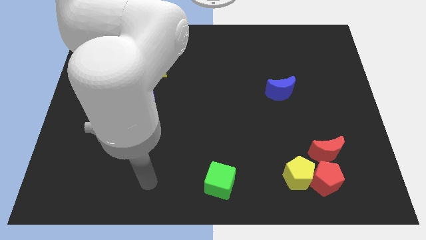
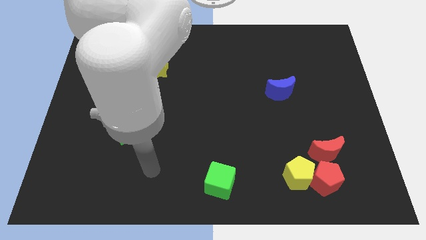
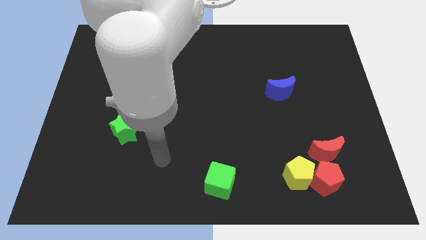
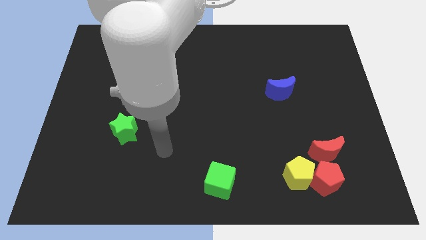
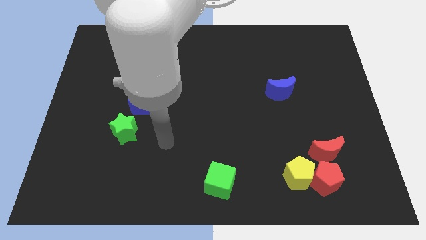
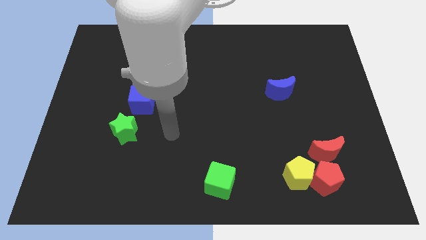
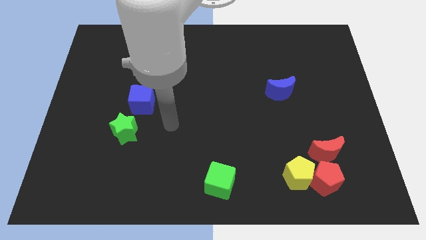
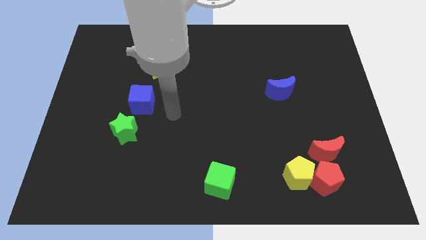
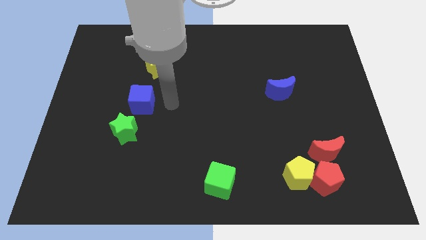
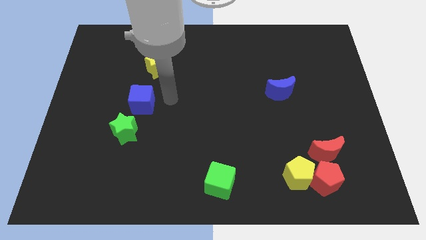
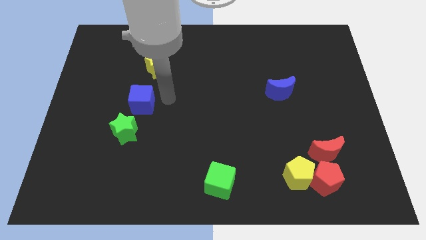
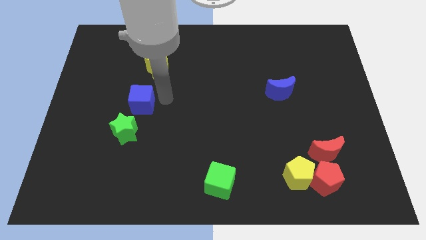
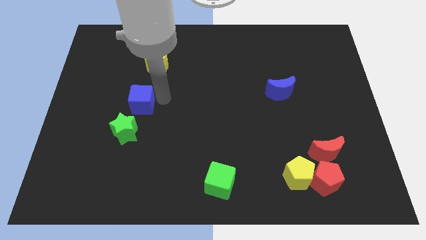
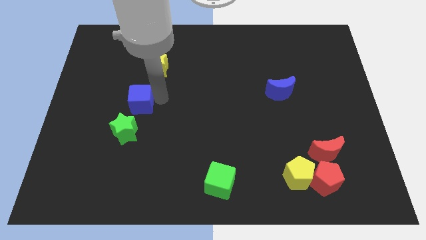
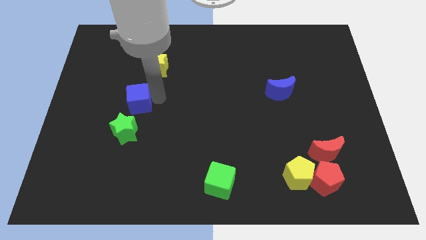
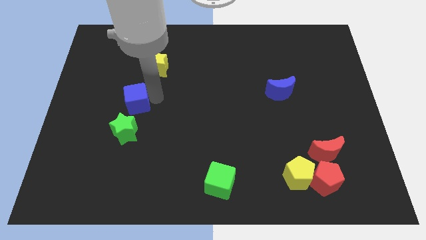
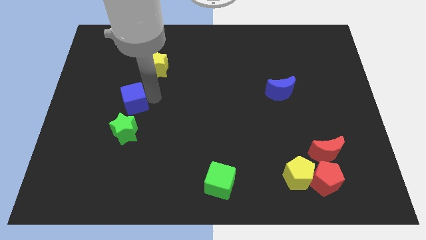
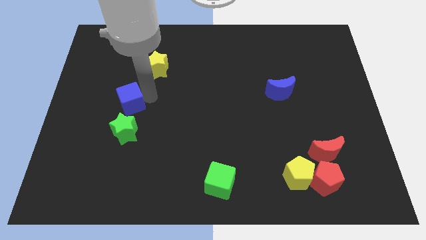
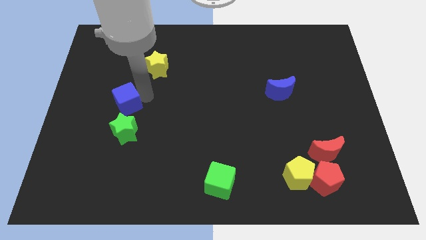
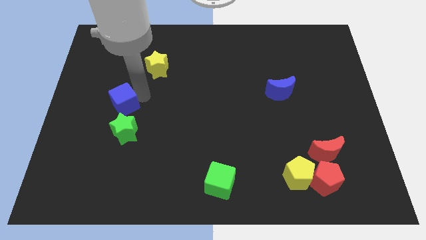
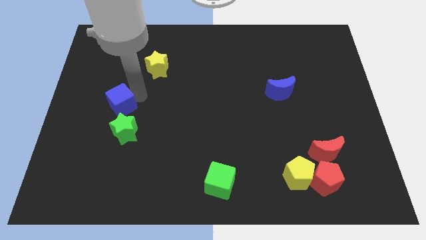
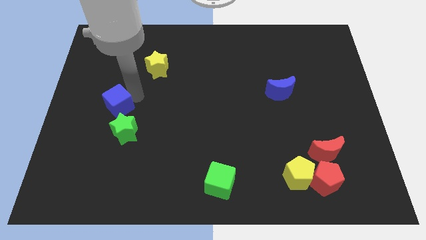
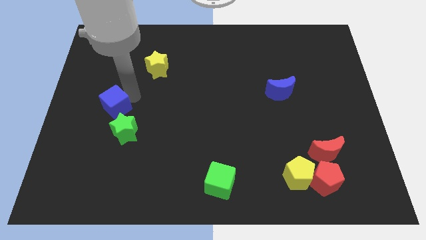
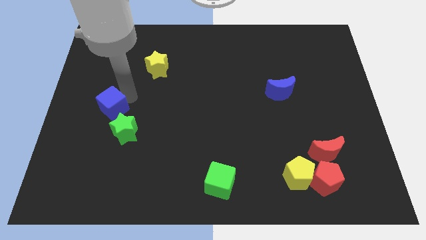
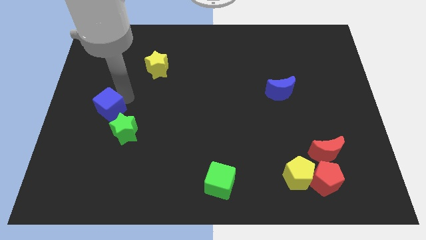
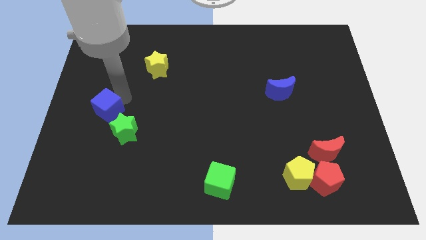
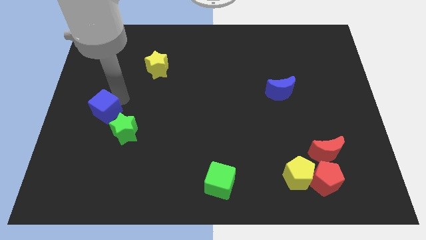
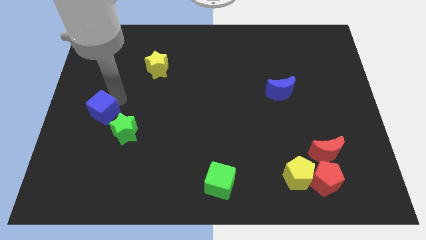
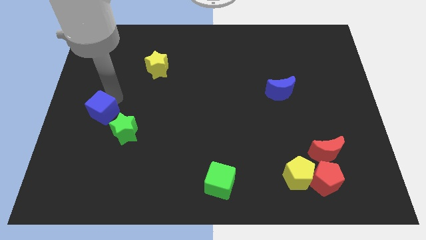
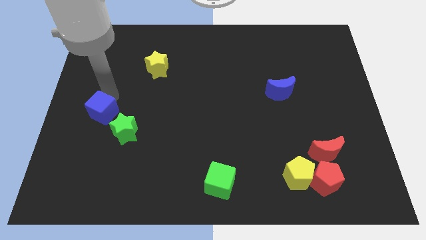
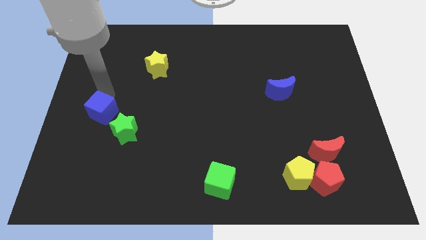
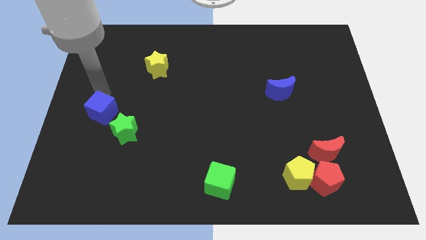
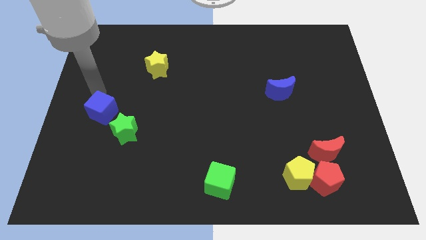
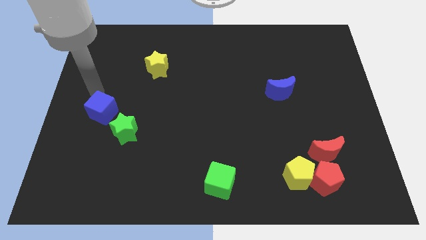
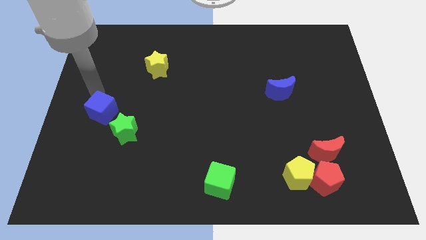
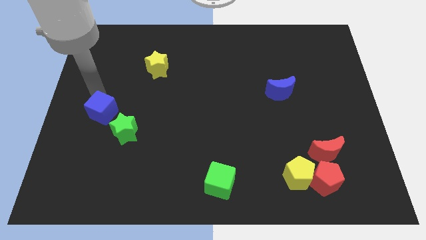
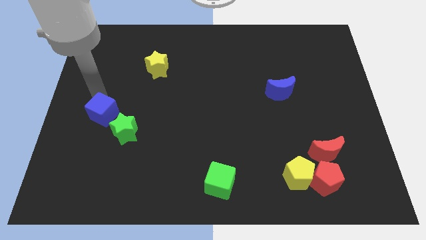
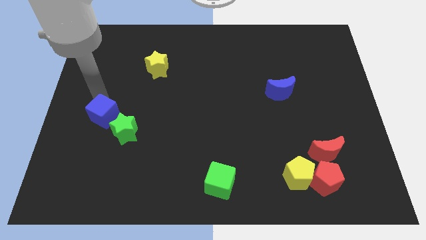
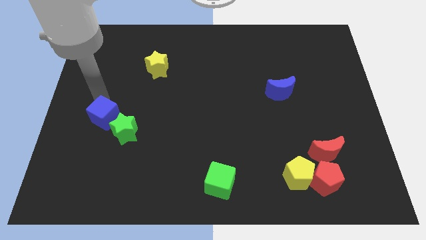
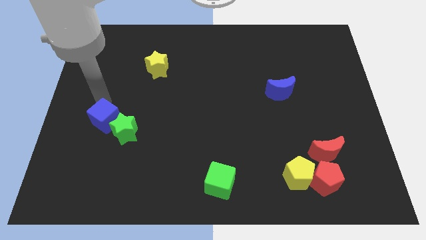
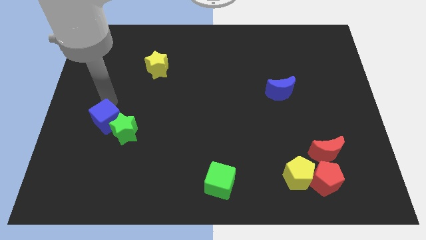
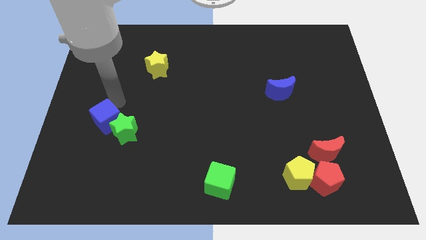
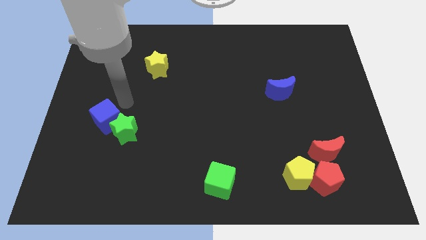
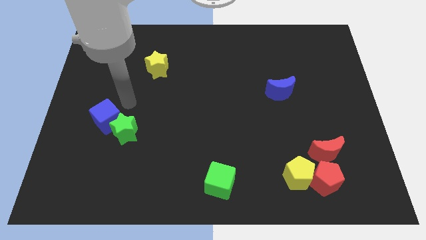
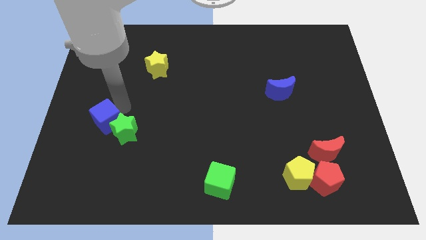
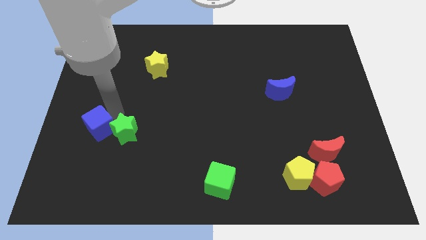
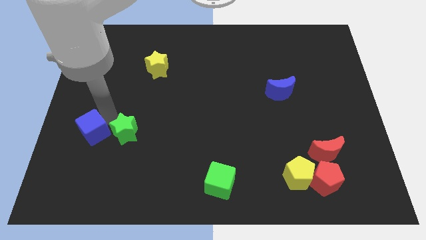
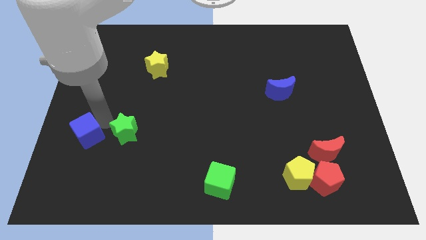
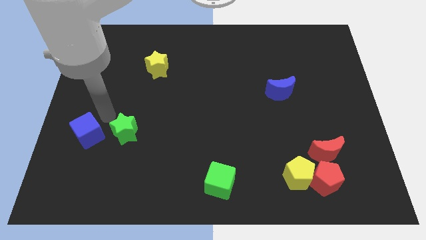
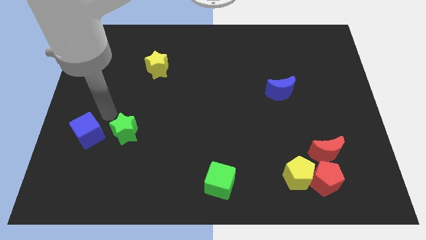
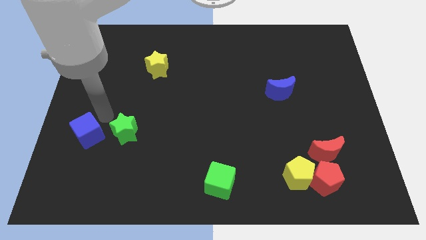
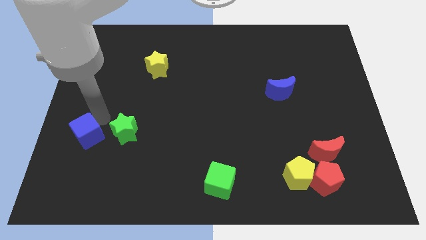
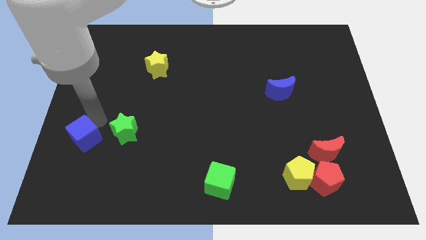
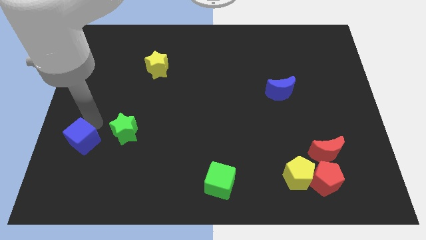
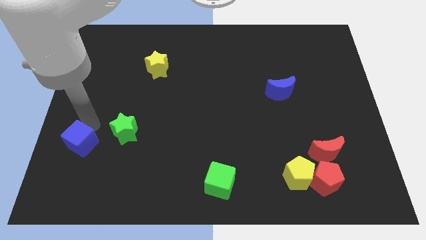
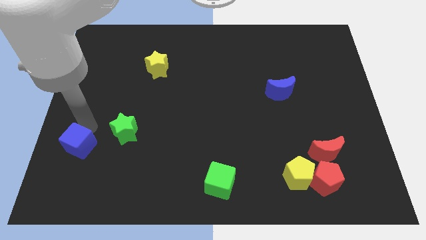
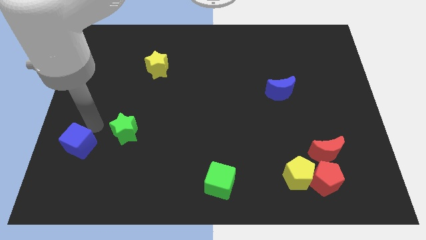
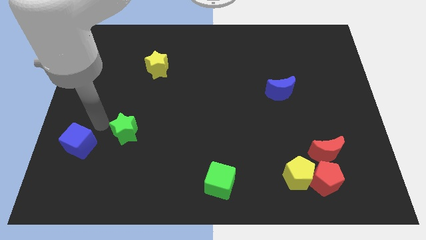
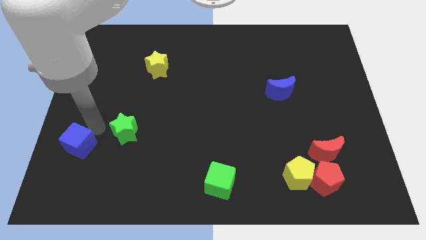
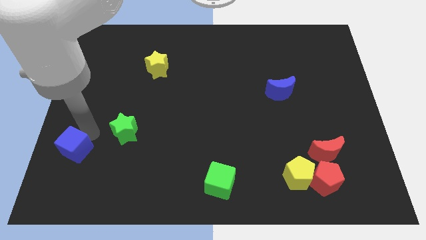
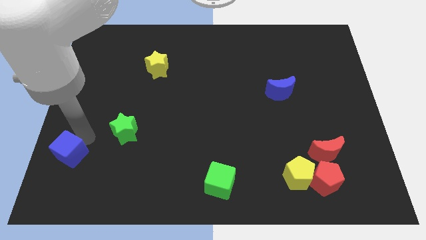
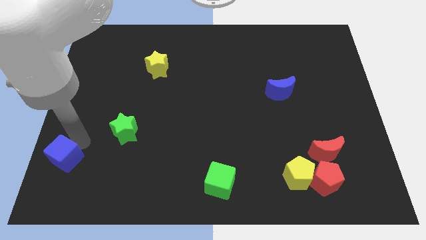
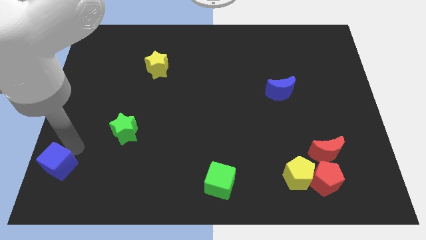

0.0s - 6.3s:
push the blue cube to the bottom left corner
